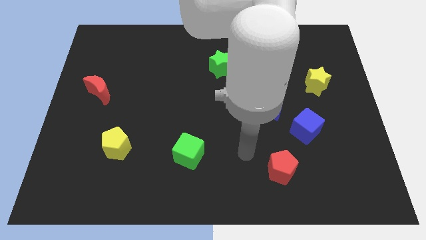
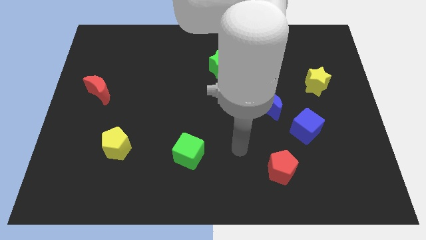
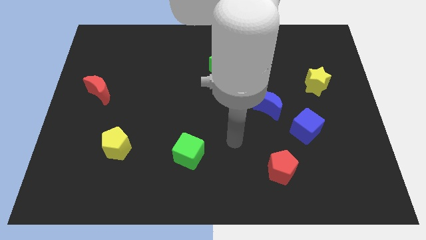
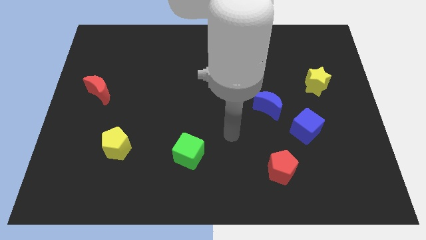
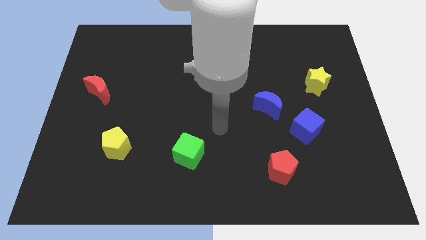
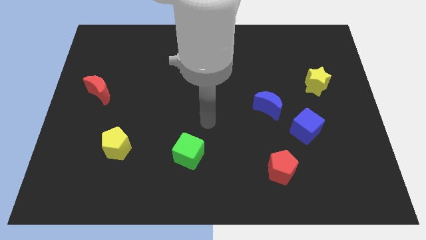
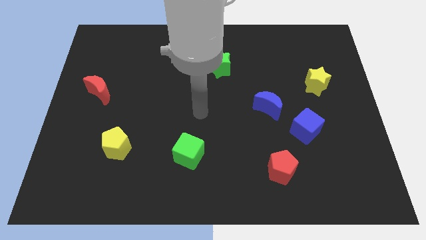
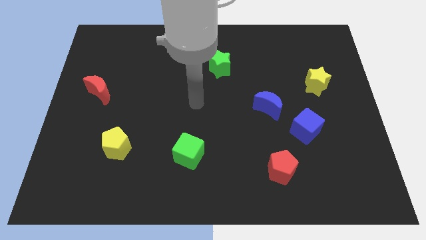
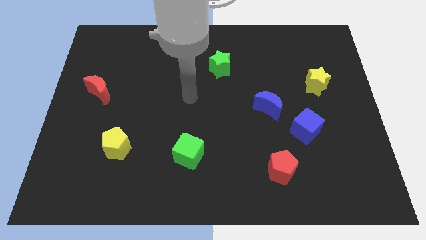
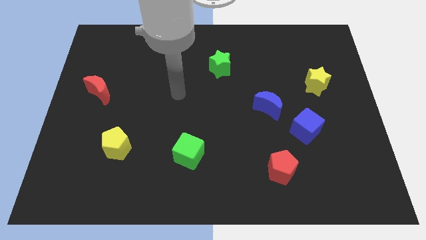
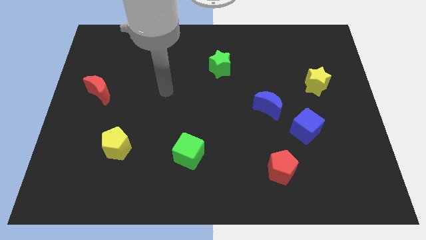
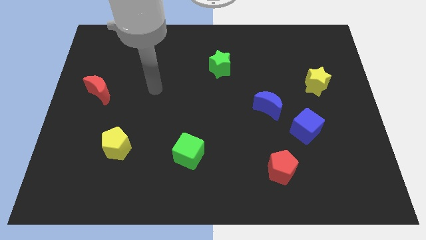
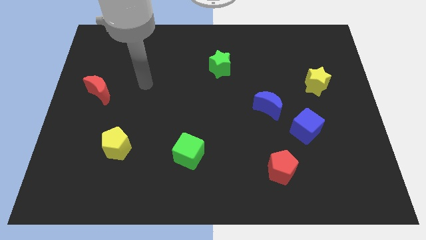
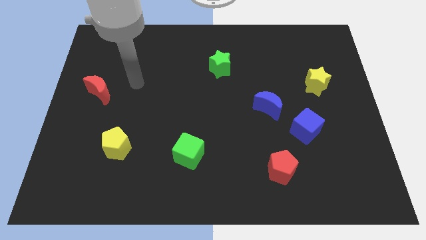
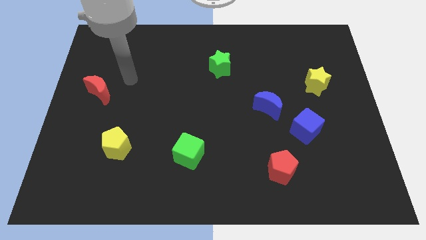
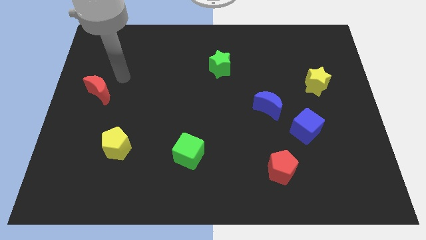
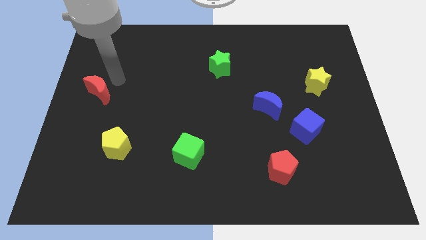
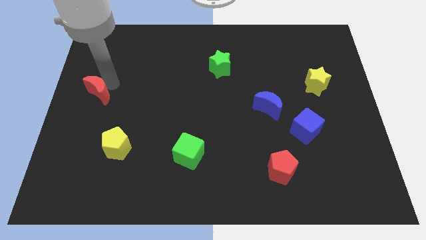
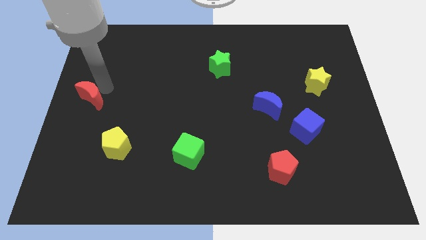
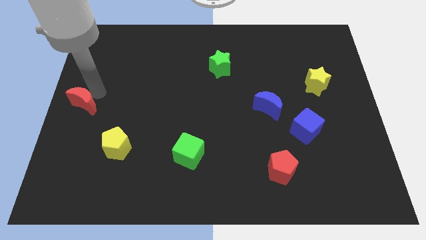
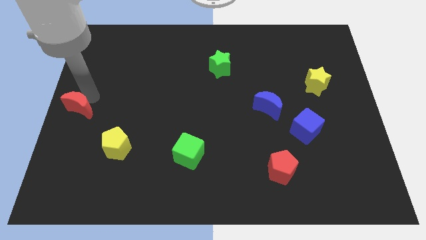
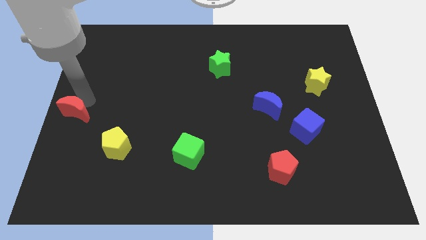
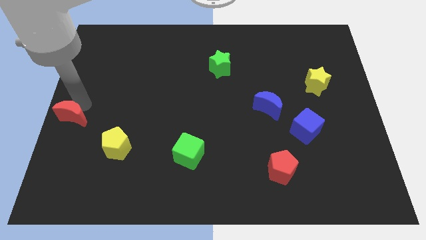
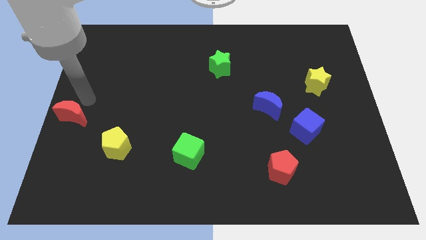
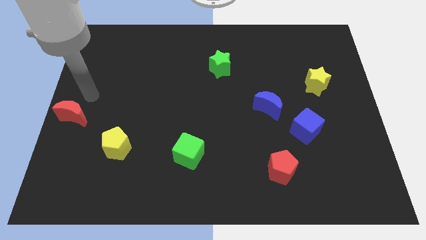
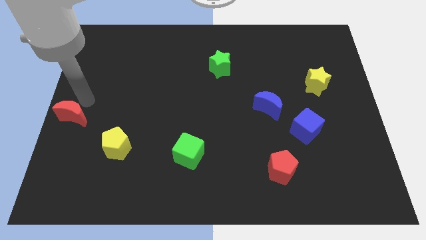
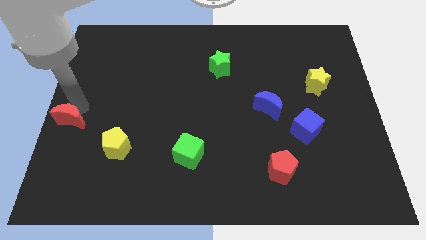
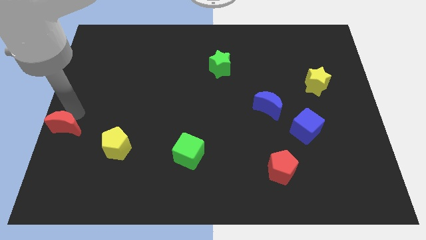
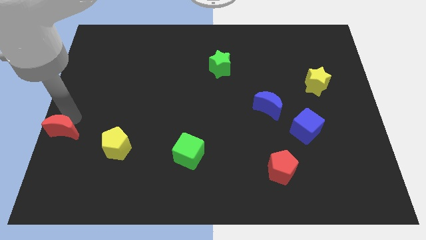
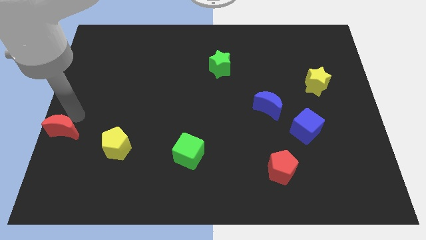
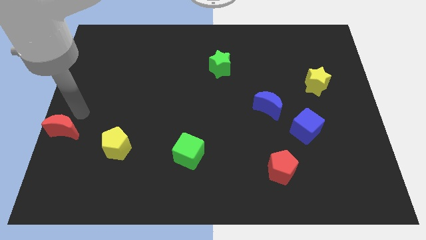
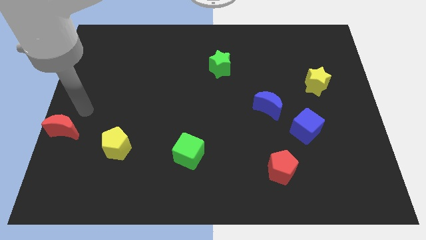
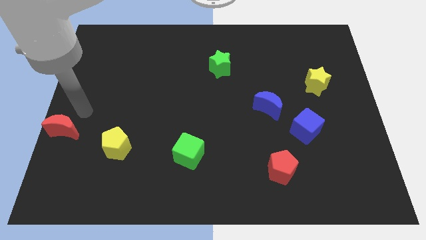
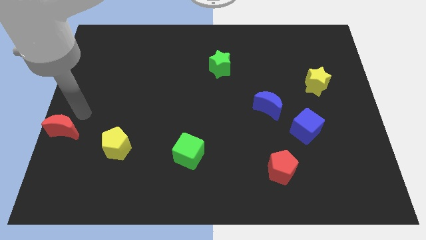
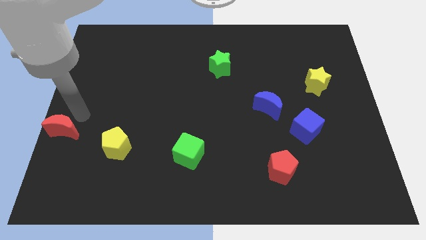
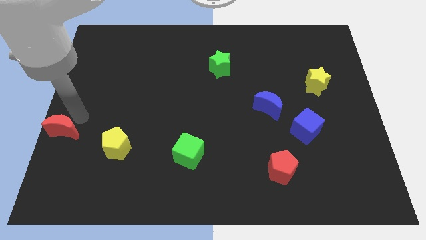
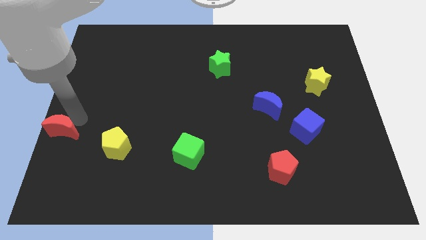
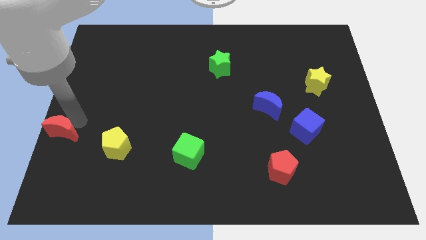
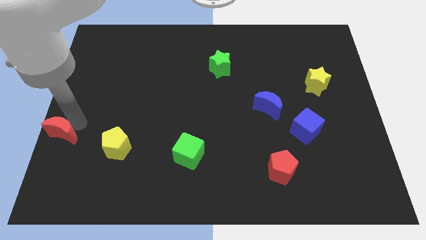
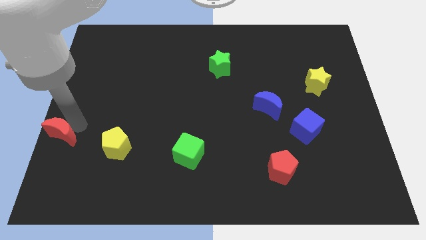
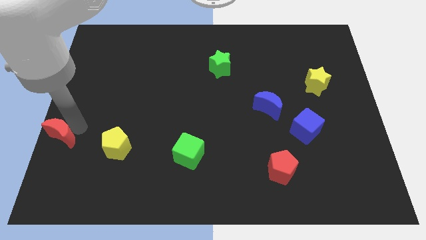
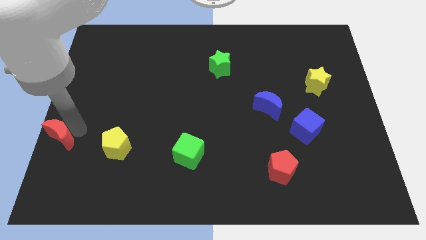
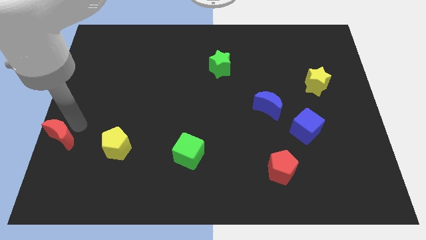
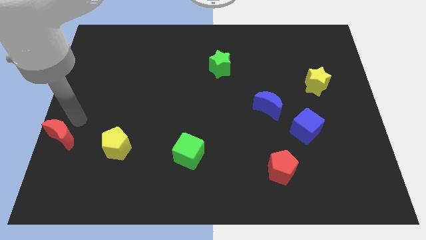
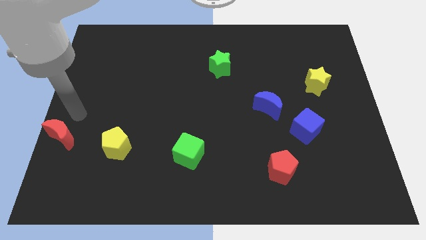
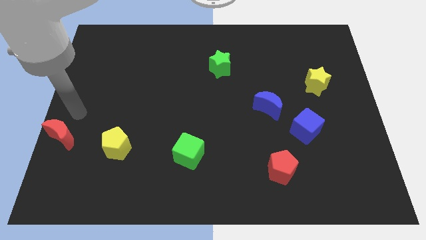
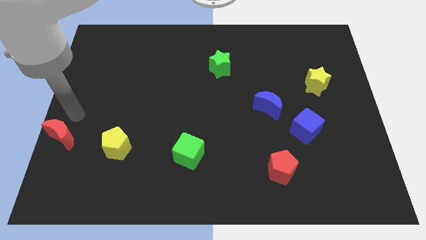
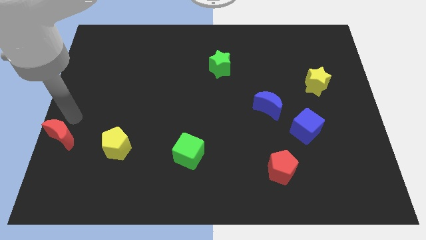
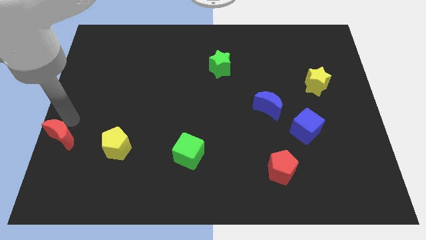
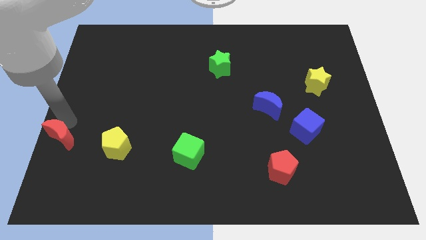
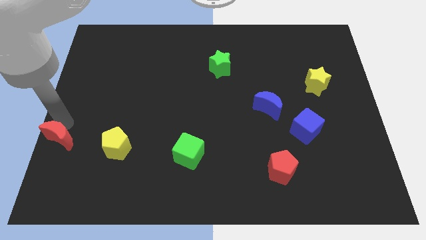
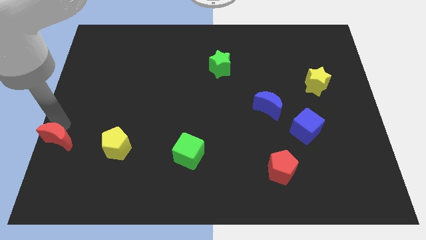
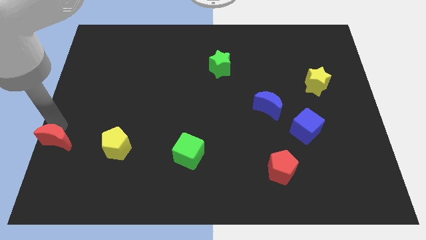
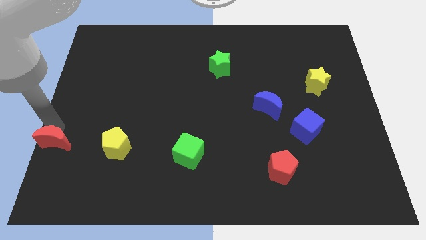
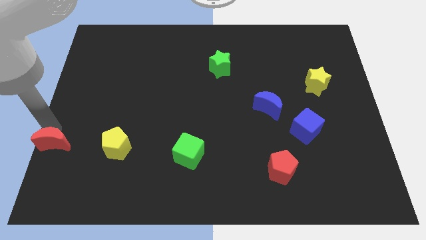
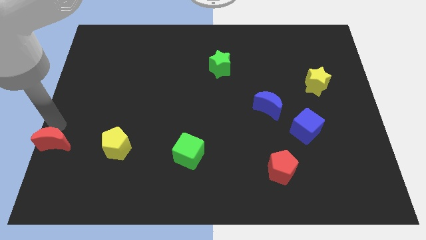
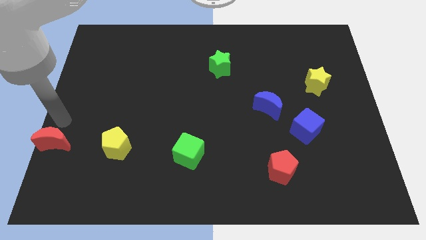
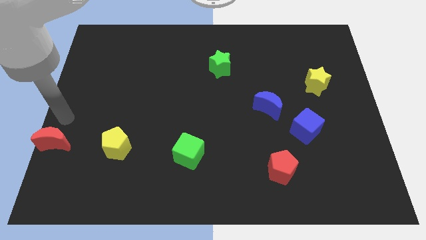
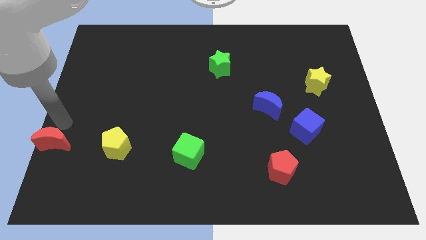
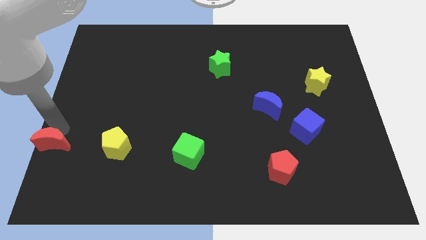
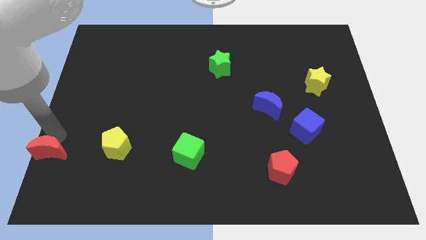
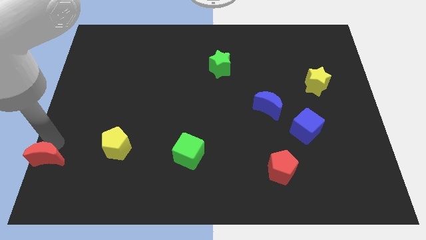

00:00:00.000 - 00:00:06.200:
move the red moon to the lower left corner
